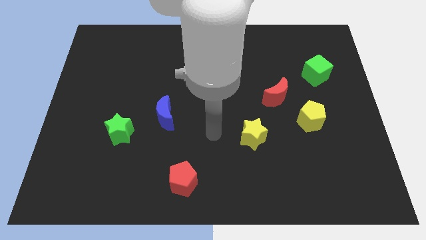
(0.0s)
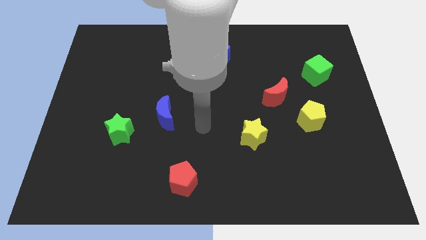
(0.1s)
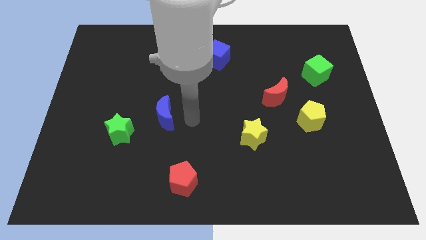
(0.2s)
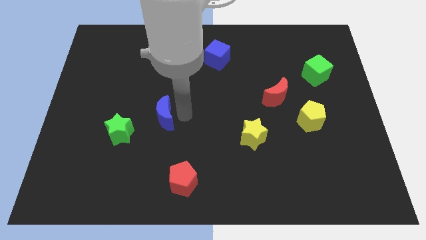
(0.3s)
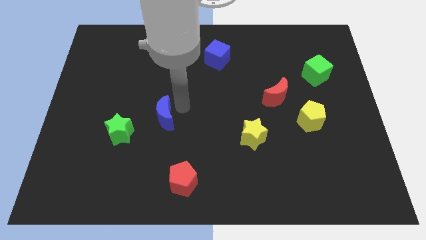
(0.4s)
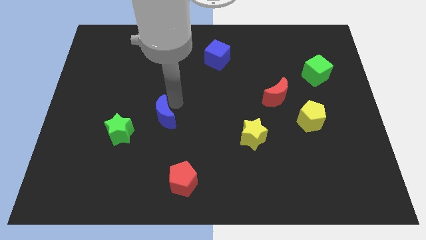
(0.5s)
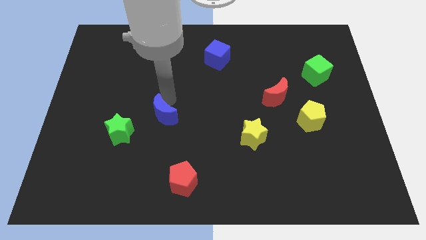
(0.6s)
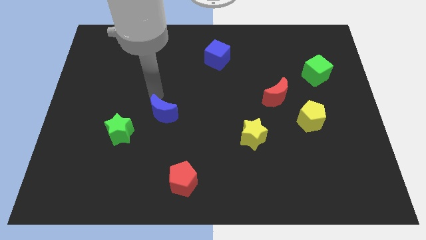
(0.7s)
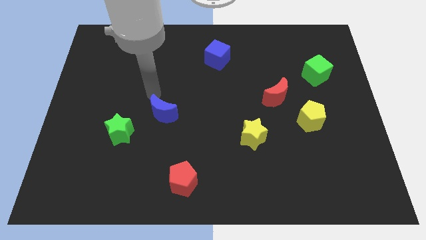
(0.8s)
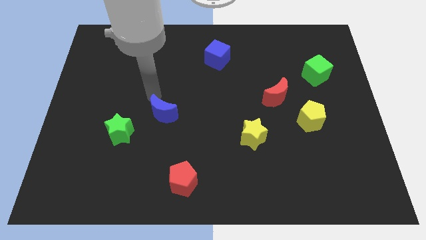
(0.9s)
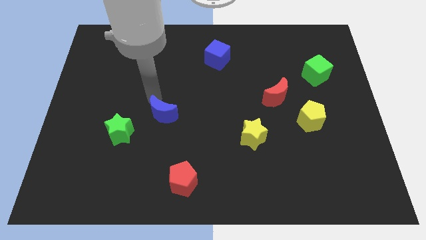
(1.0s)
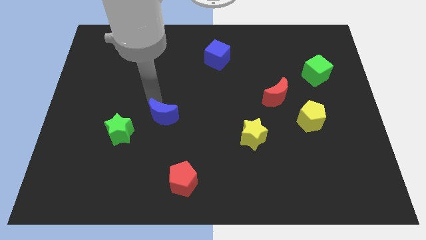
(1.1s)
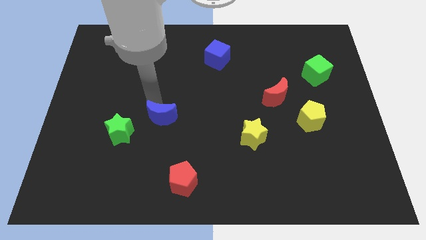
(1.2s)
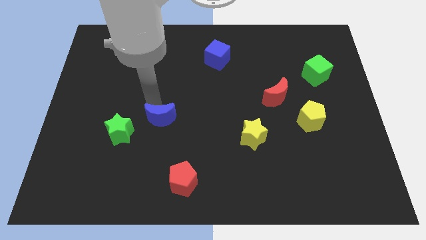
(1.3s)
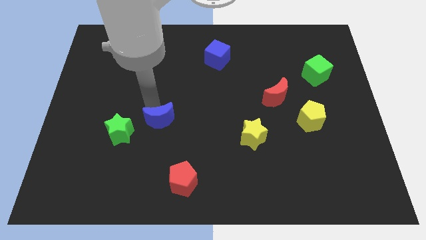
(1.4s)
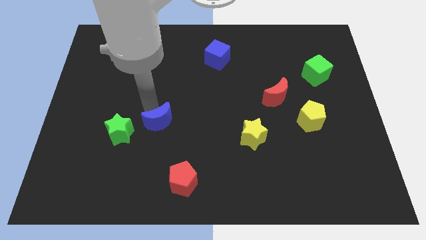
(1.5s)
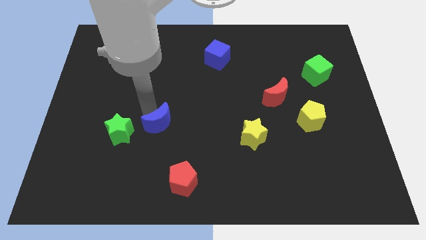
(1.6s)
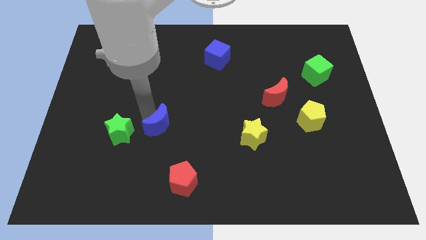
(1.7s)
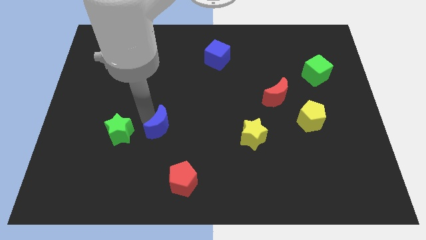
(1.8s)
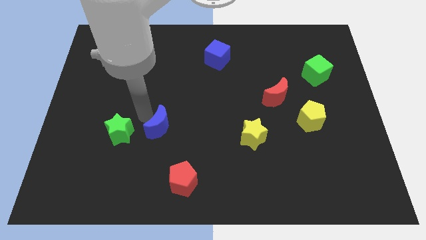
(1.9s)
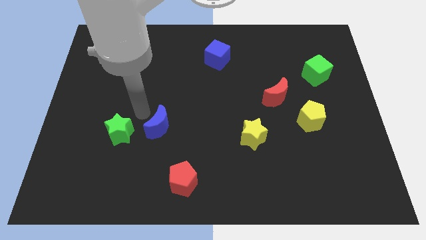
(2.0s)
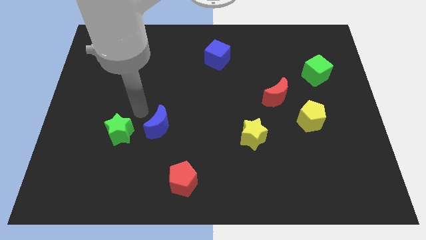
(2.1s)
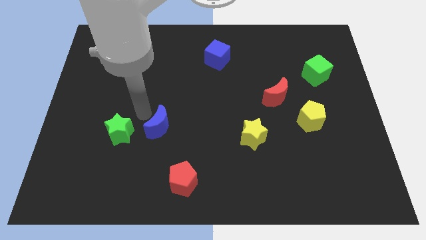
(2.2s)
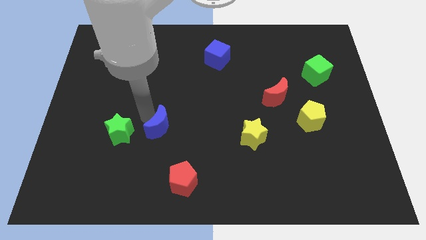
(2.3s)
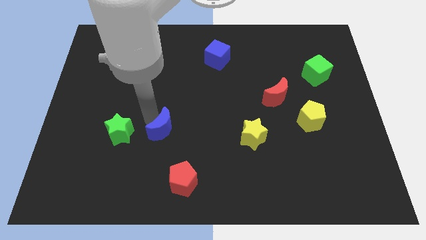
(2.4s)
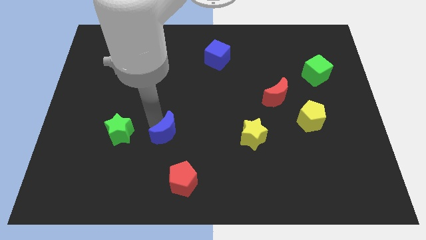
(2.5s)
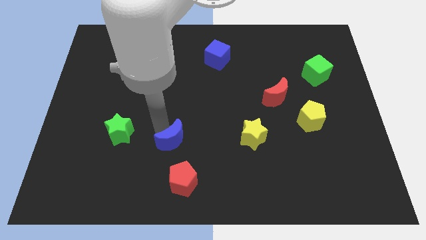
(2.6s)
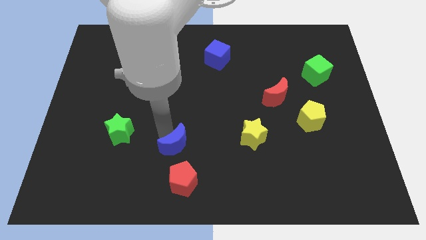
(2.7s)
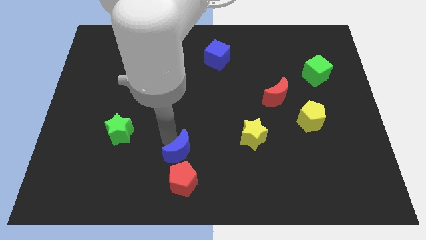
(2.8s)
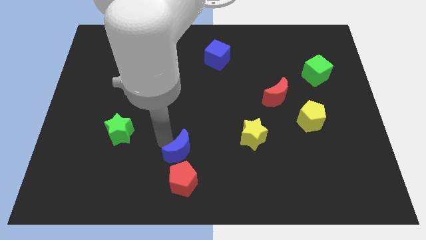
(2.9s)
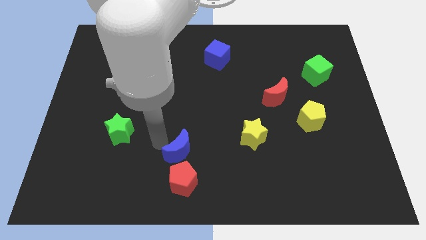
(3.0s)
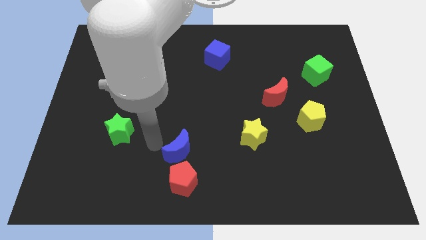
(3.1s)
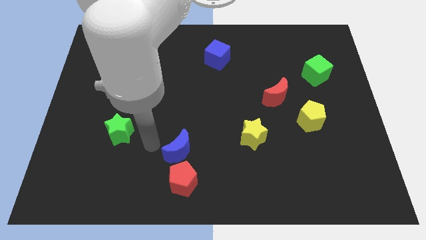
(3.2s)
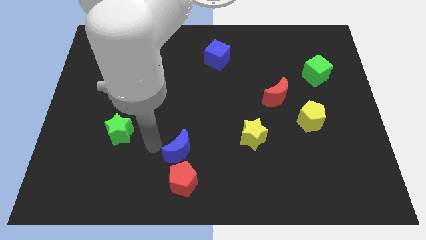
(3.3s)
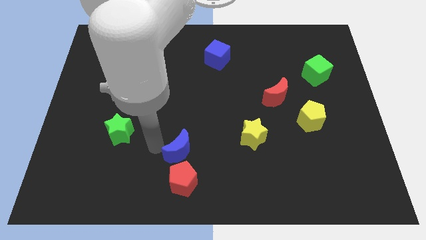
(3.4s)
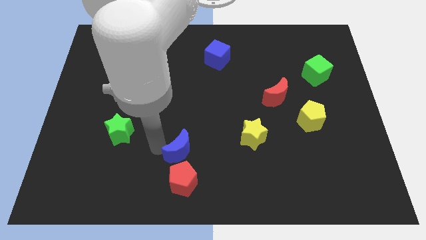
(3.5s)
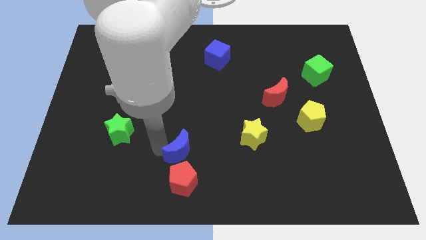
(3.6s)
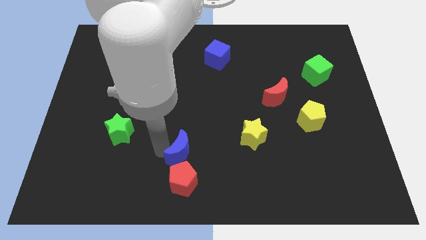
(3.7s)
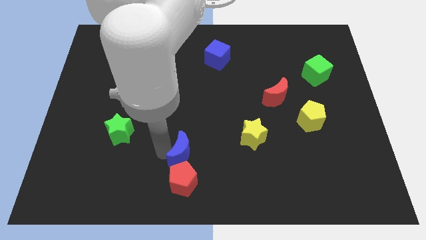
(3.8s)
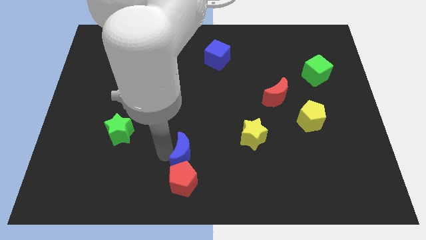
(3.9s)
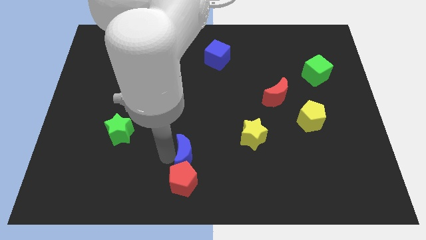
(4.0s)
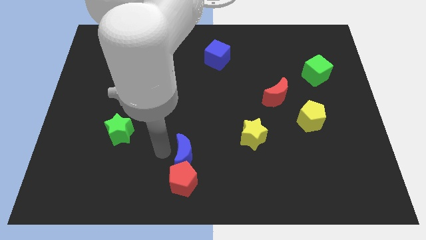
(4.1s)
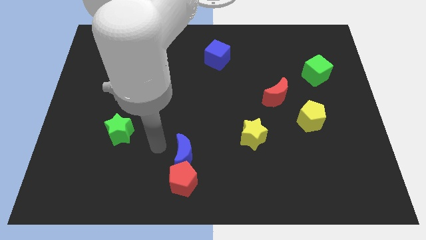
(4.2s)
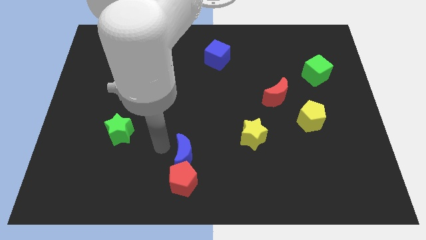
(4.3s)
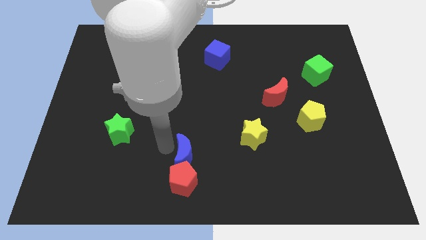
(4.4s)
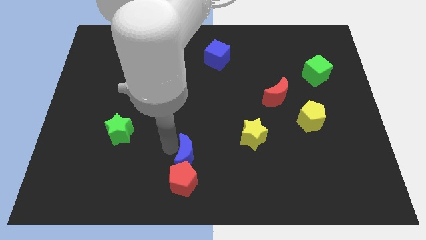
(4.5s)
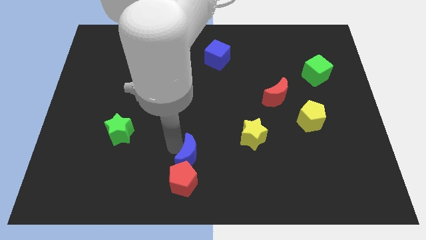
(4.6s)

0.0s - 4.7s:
slide the blue moon to the bottom

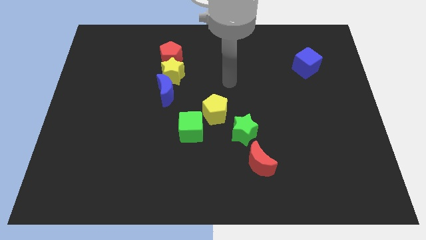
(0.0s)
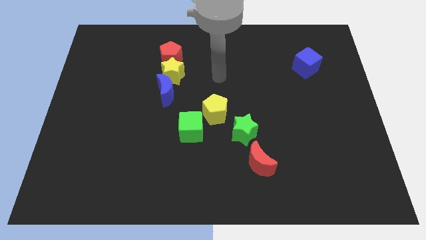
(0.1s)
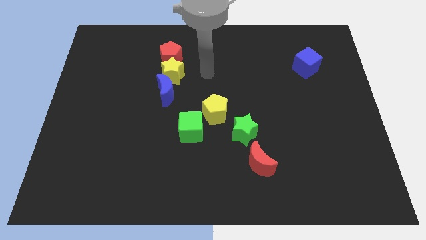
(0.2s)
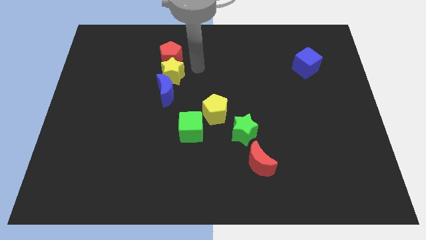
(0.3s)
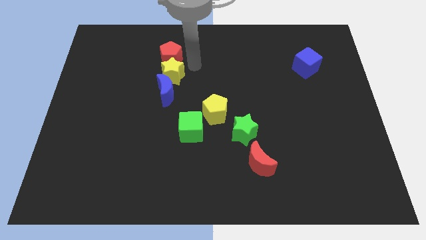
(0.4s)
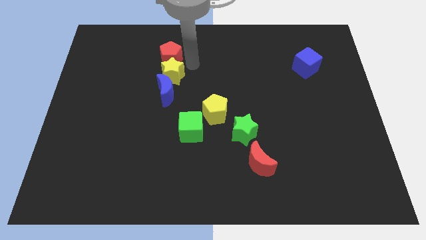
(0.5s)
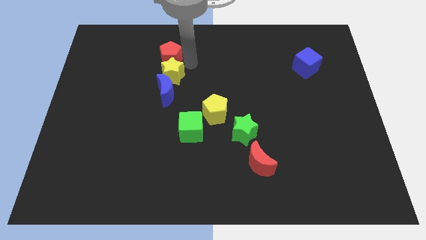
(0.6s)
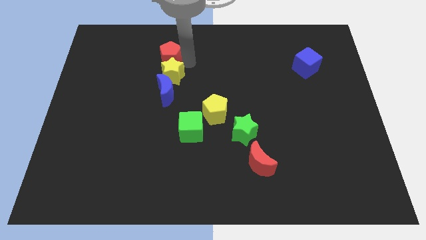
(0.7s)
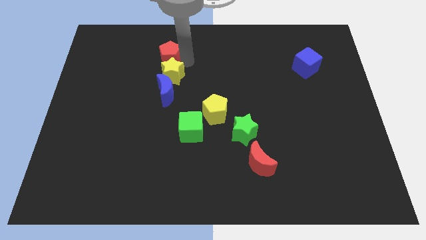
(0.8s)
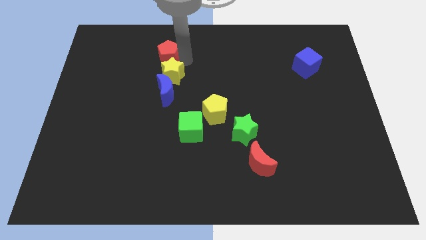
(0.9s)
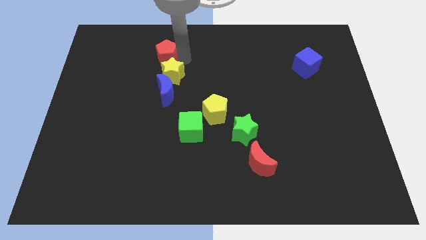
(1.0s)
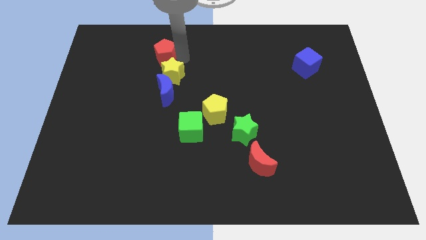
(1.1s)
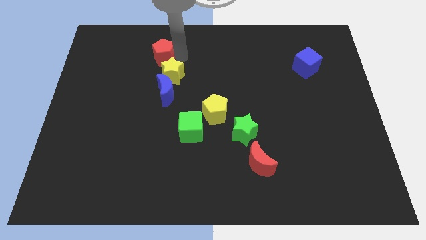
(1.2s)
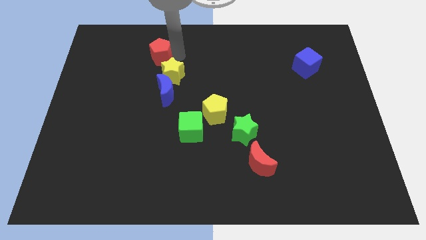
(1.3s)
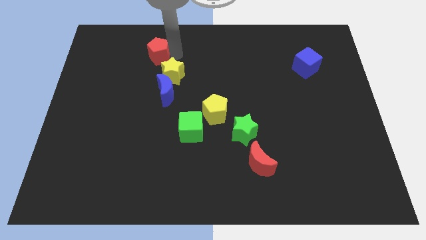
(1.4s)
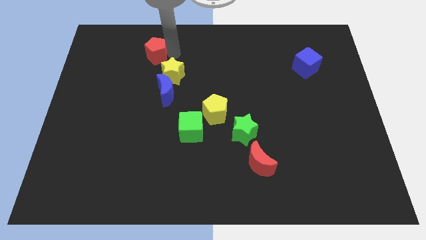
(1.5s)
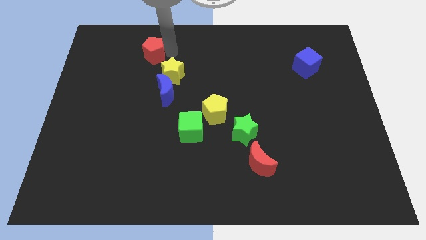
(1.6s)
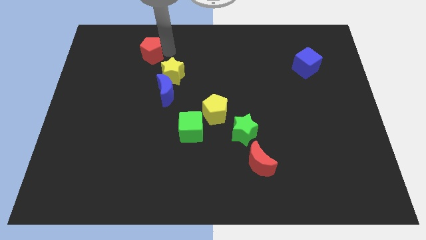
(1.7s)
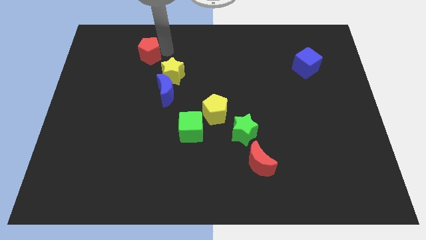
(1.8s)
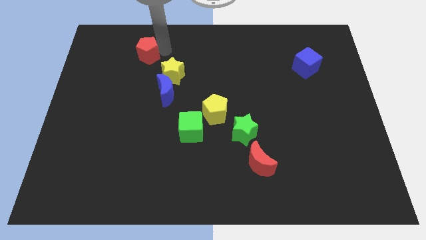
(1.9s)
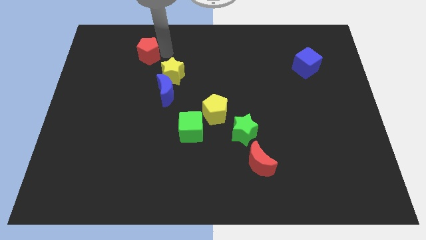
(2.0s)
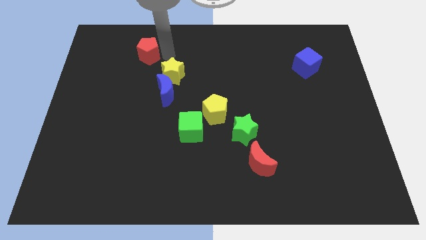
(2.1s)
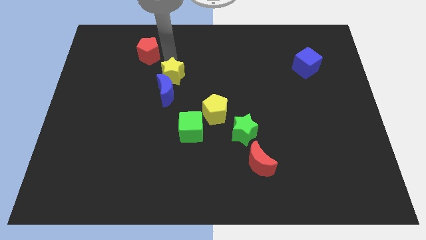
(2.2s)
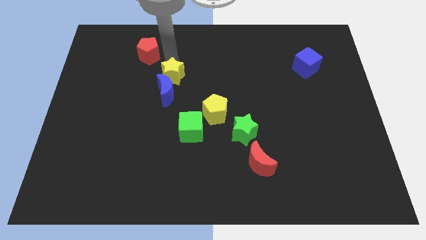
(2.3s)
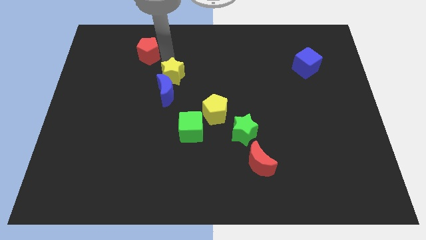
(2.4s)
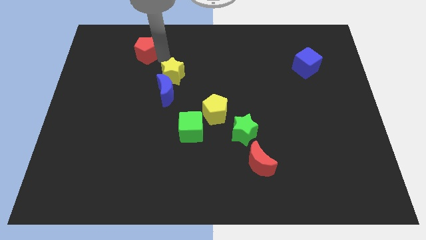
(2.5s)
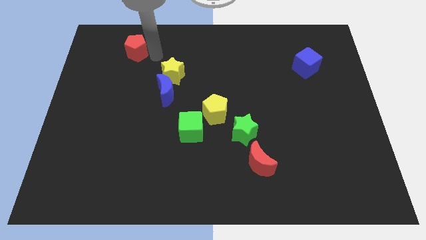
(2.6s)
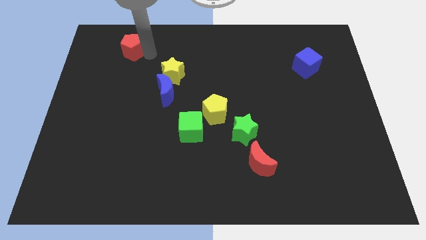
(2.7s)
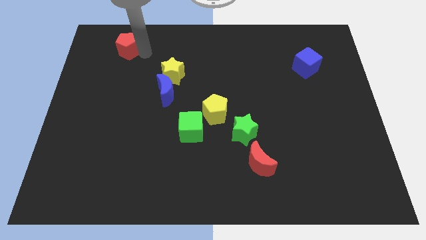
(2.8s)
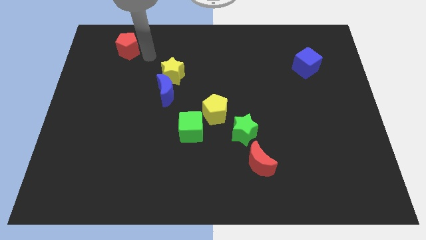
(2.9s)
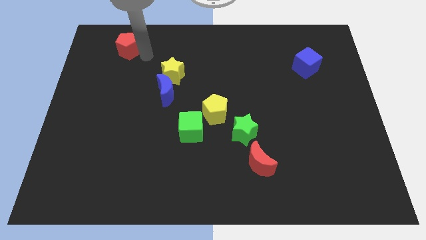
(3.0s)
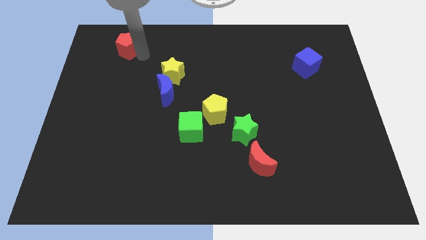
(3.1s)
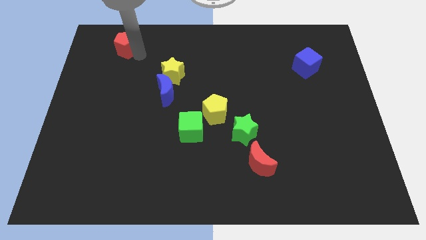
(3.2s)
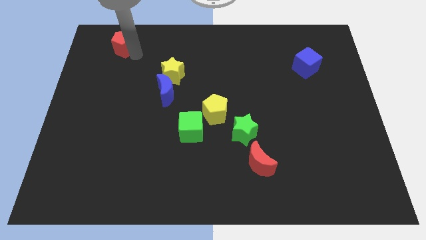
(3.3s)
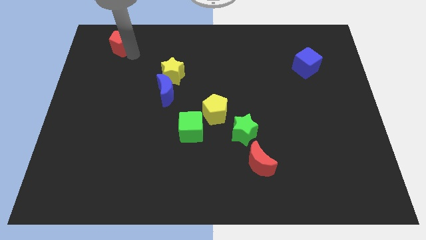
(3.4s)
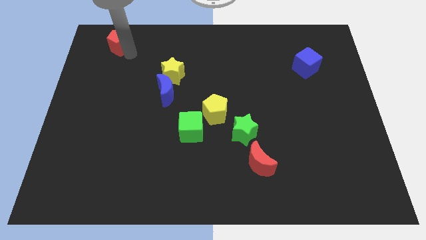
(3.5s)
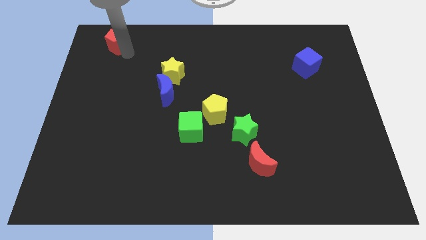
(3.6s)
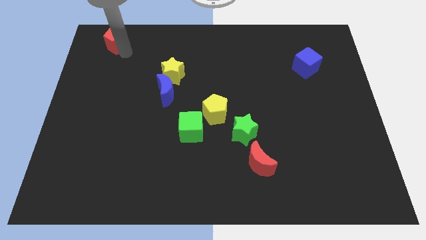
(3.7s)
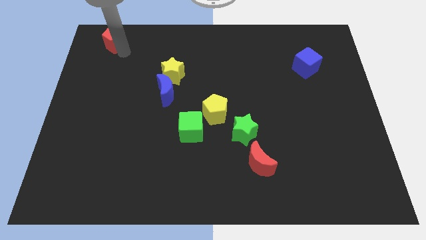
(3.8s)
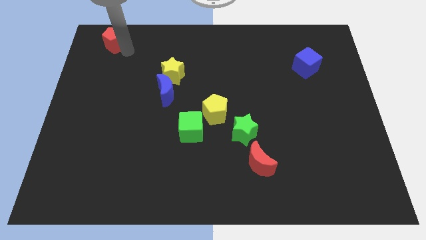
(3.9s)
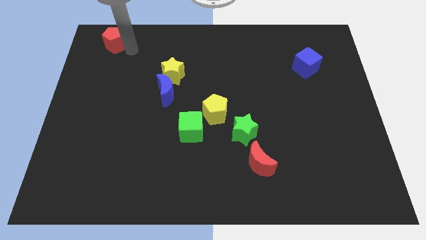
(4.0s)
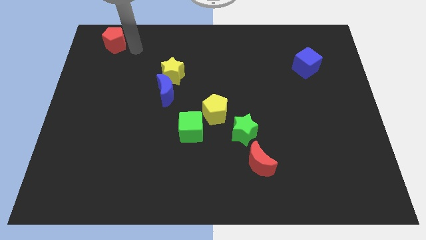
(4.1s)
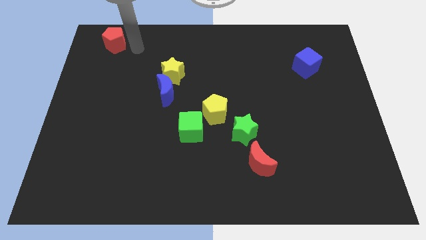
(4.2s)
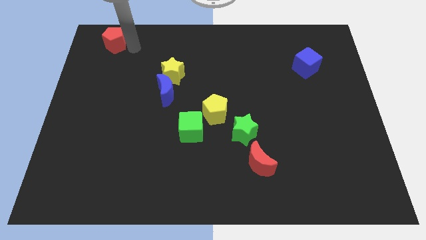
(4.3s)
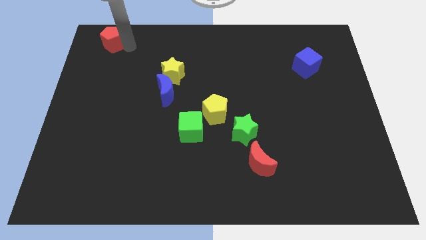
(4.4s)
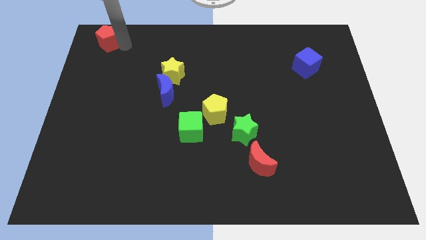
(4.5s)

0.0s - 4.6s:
push the red pentagon to the upper left corner
